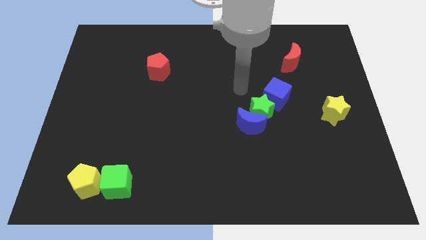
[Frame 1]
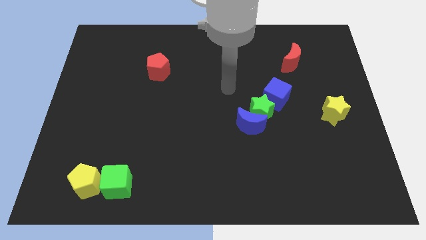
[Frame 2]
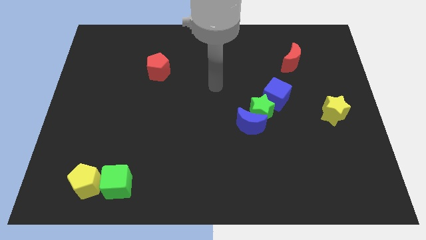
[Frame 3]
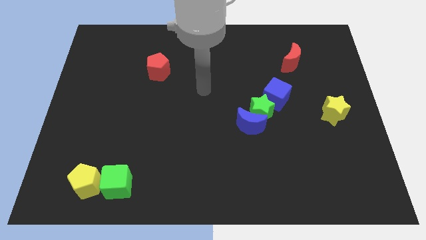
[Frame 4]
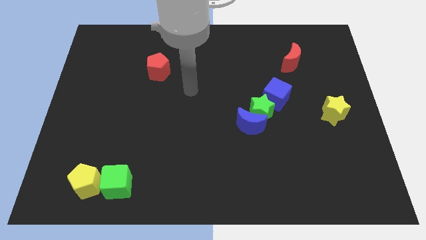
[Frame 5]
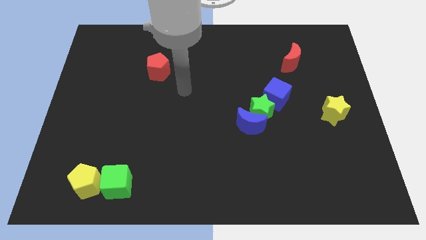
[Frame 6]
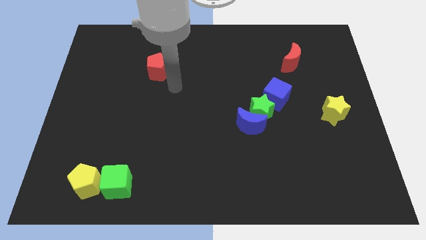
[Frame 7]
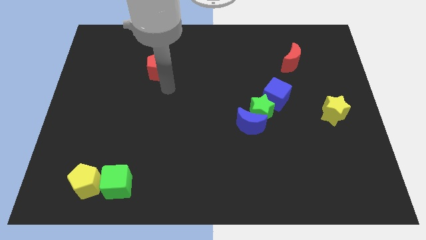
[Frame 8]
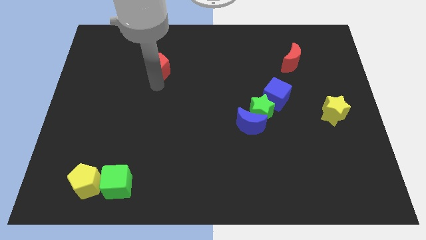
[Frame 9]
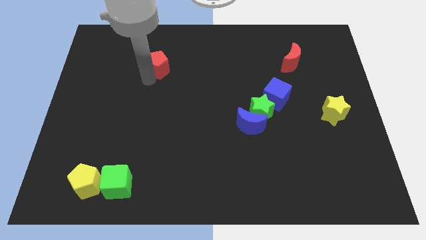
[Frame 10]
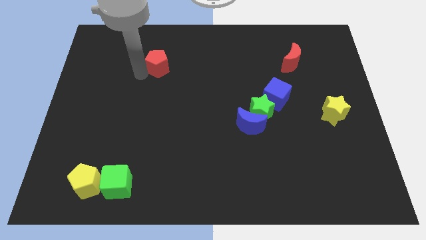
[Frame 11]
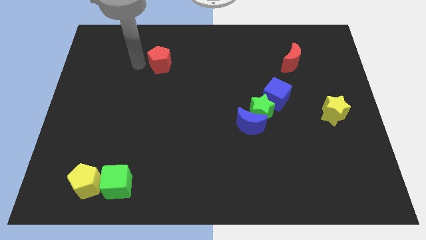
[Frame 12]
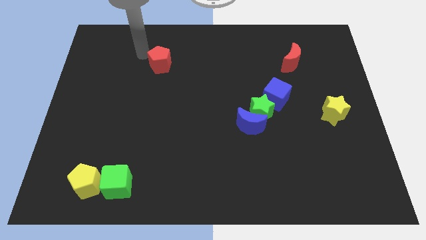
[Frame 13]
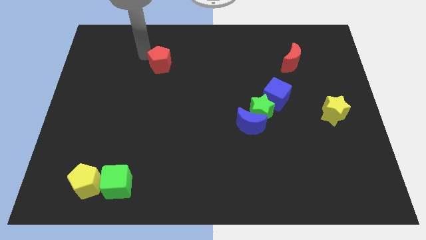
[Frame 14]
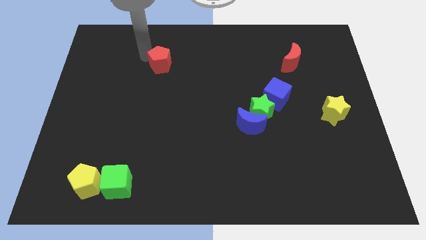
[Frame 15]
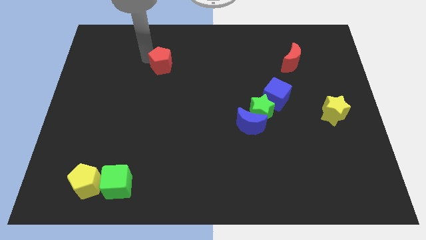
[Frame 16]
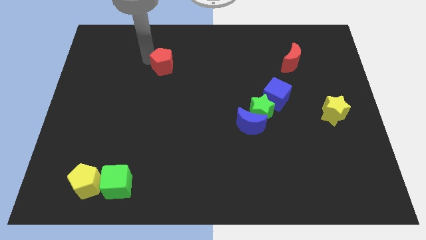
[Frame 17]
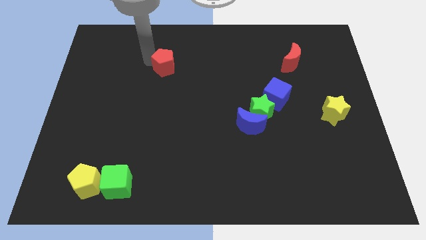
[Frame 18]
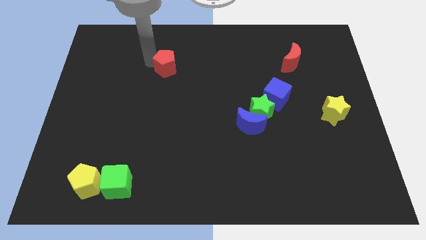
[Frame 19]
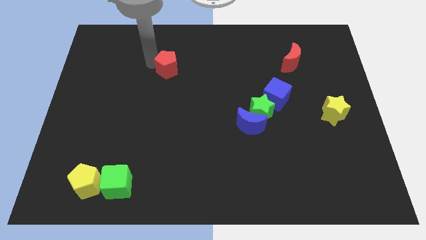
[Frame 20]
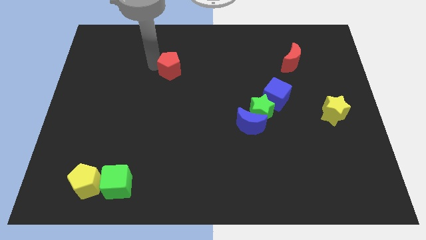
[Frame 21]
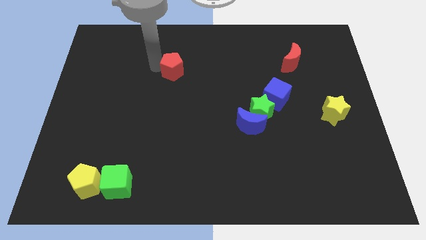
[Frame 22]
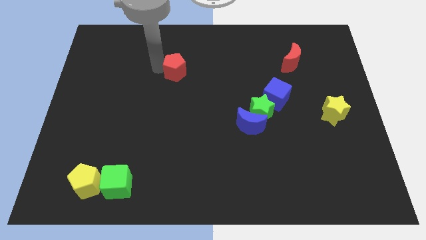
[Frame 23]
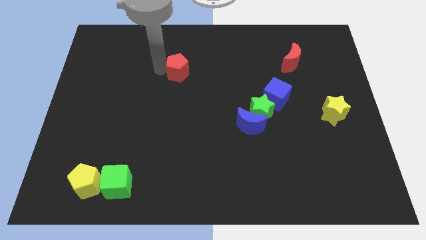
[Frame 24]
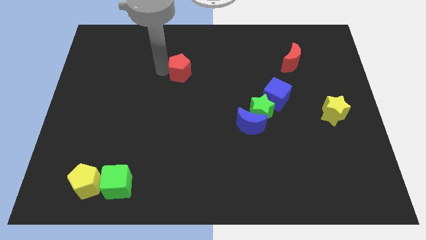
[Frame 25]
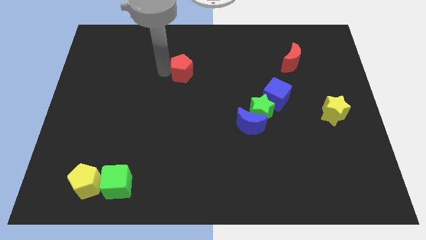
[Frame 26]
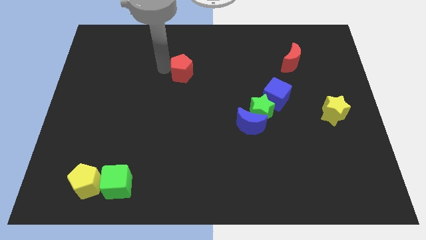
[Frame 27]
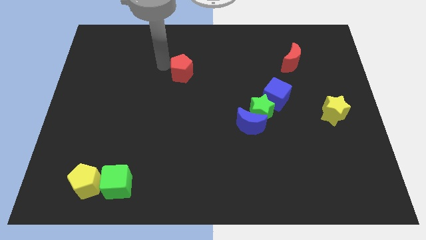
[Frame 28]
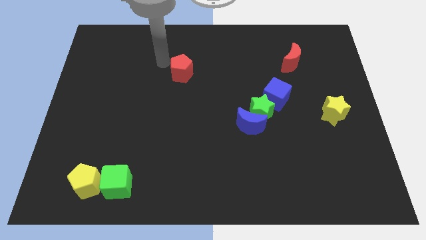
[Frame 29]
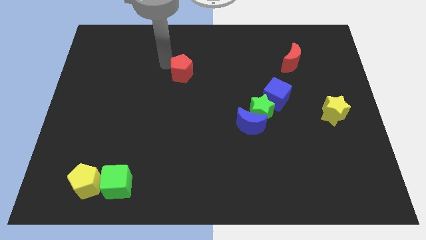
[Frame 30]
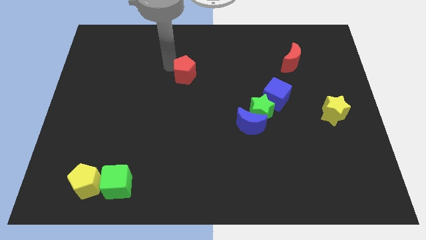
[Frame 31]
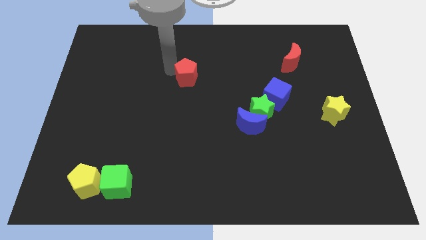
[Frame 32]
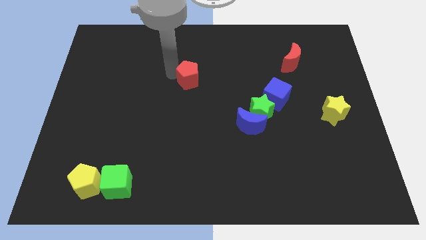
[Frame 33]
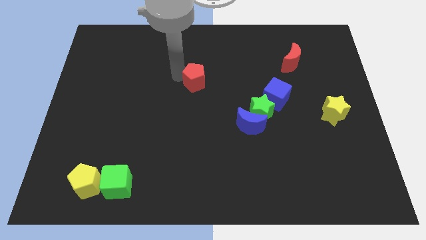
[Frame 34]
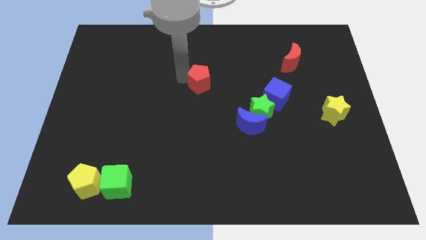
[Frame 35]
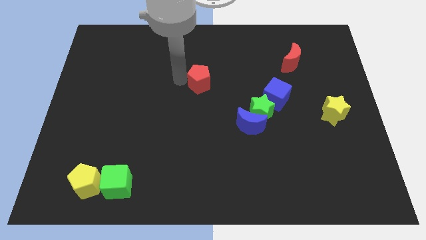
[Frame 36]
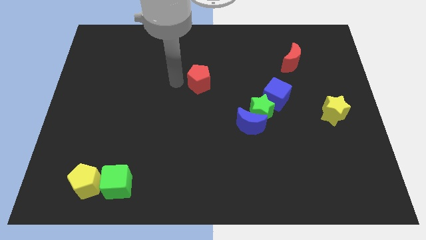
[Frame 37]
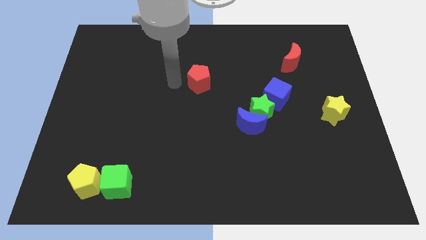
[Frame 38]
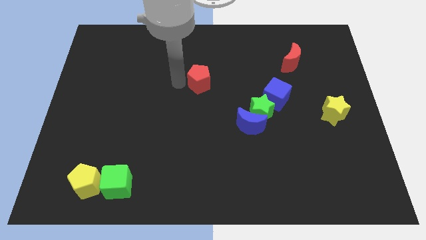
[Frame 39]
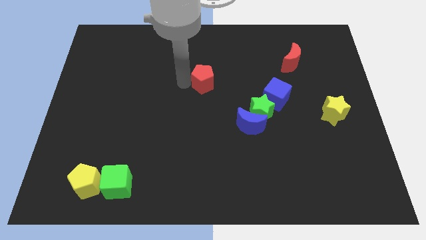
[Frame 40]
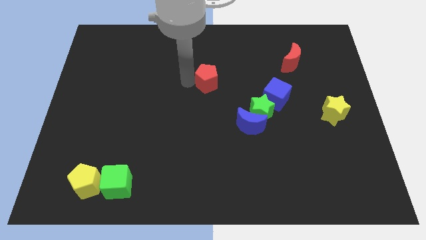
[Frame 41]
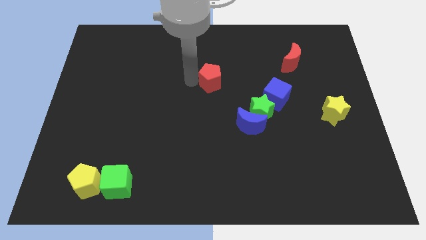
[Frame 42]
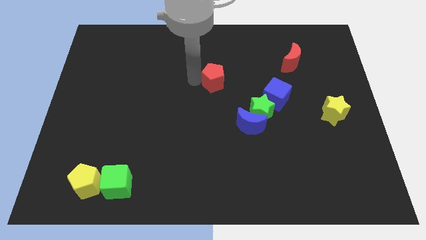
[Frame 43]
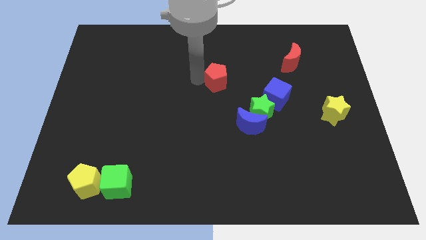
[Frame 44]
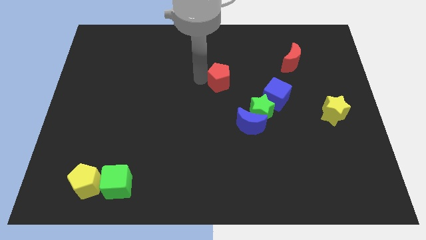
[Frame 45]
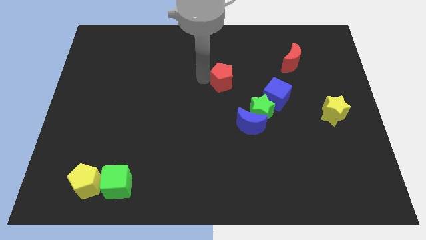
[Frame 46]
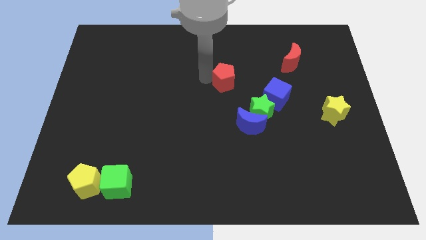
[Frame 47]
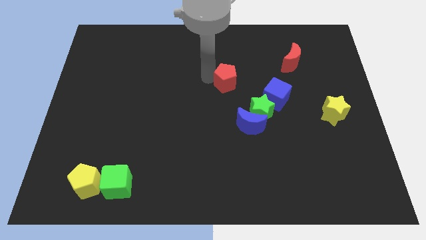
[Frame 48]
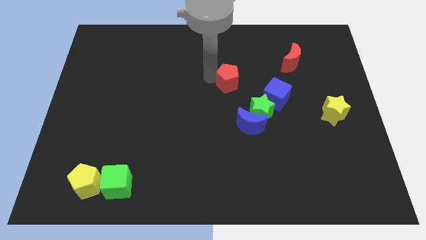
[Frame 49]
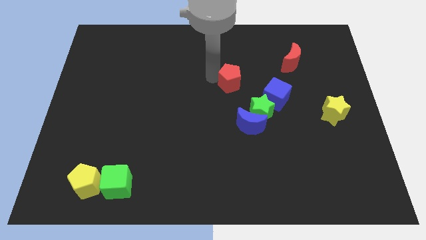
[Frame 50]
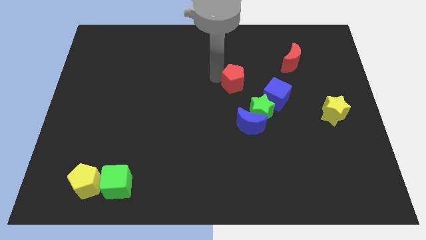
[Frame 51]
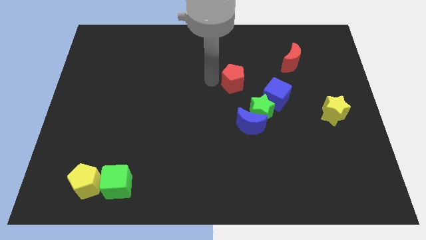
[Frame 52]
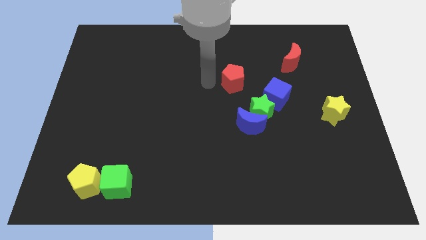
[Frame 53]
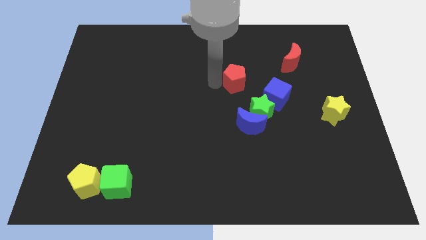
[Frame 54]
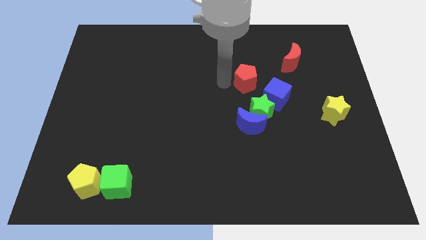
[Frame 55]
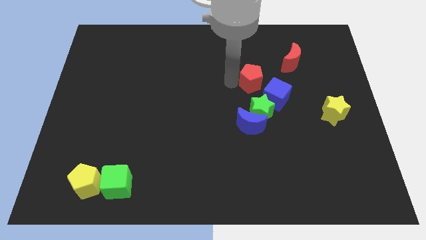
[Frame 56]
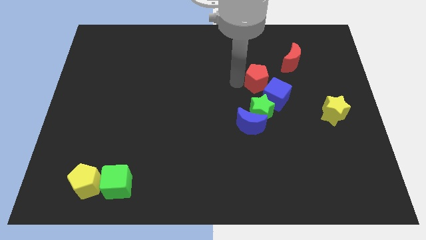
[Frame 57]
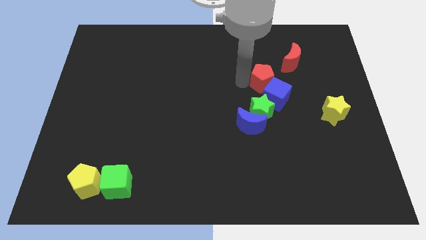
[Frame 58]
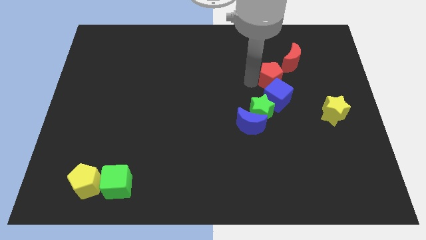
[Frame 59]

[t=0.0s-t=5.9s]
put the red pentagon to the top right side of the blue cube

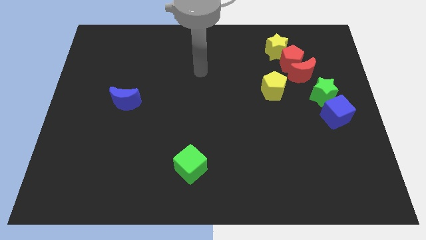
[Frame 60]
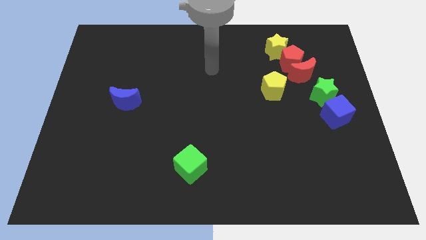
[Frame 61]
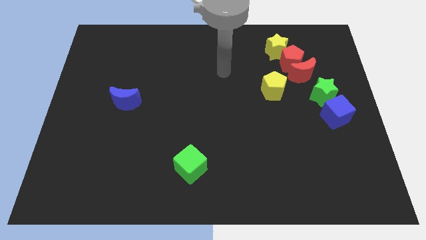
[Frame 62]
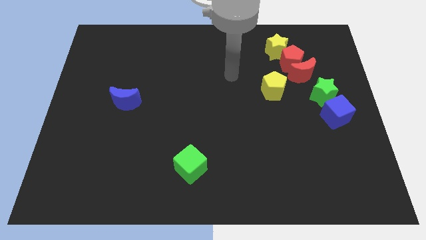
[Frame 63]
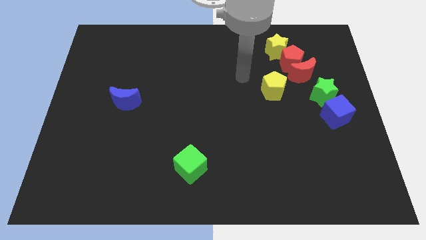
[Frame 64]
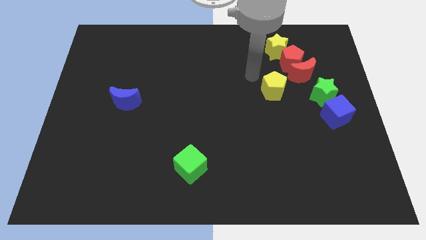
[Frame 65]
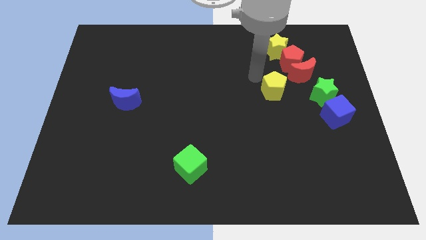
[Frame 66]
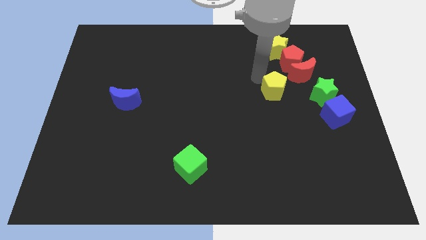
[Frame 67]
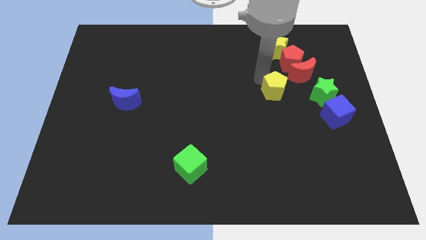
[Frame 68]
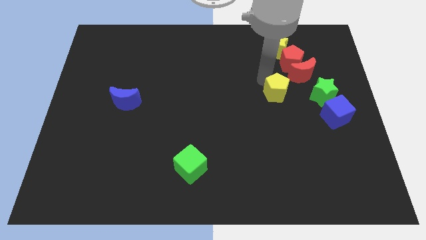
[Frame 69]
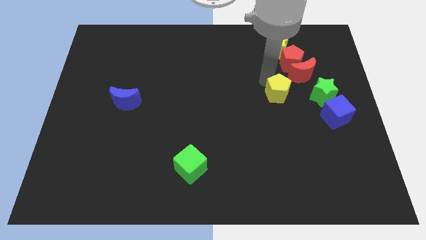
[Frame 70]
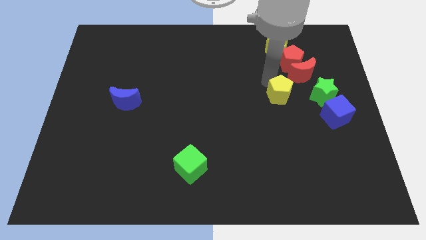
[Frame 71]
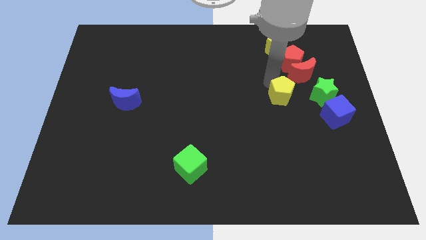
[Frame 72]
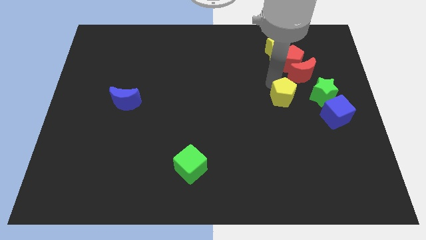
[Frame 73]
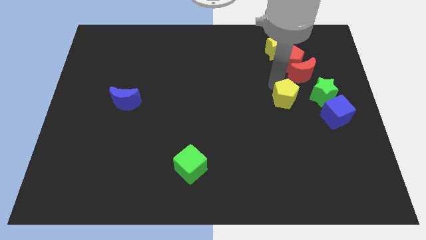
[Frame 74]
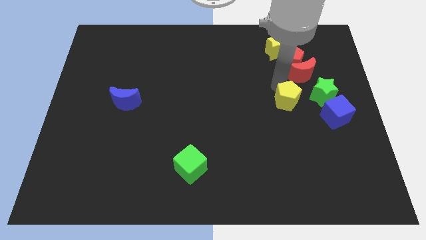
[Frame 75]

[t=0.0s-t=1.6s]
push the yellow pentagon to the bottom left of the green star
